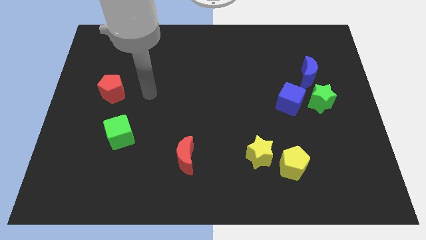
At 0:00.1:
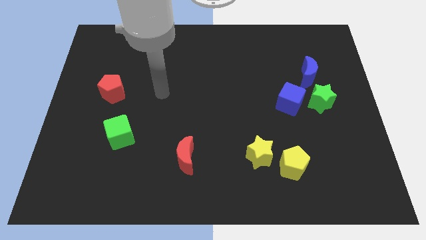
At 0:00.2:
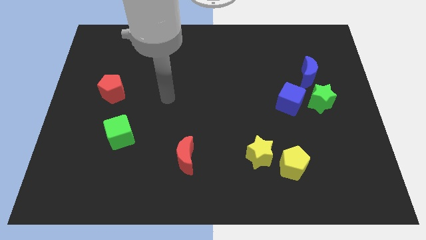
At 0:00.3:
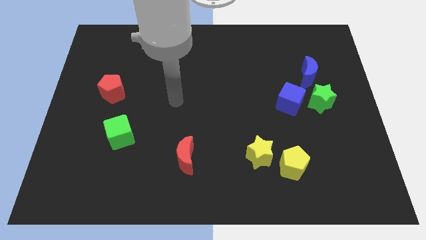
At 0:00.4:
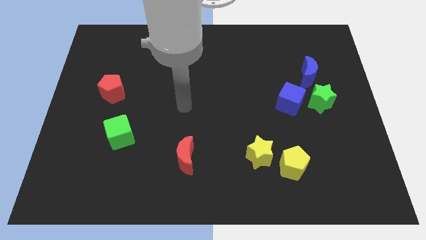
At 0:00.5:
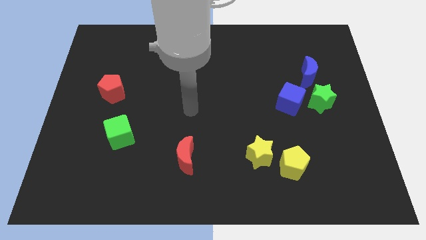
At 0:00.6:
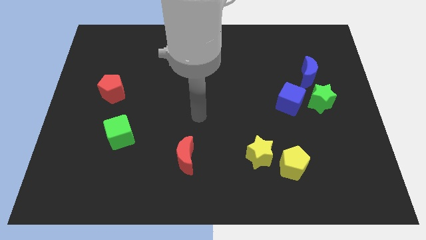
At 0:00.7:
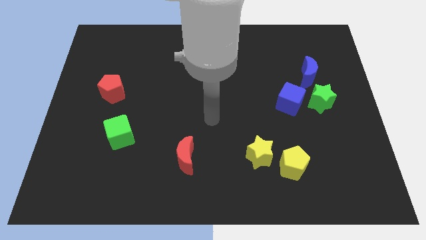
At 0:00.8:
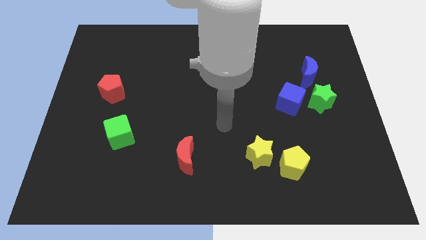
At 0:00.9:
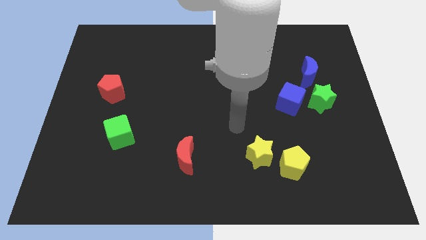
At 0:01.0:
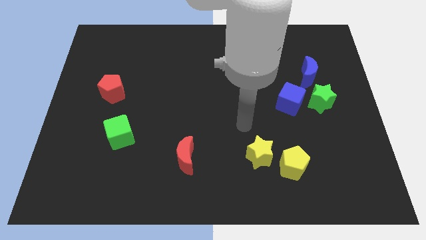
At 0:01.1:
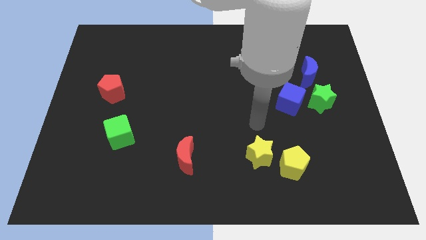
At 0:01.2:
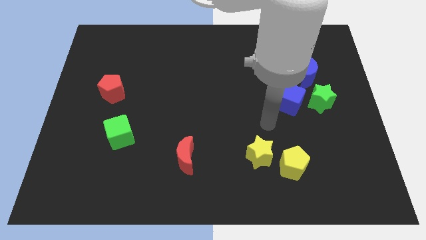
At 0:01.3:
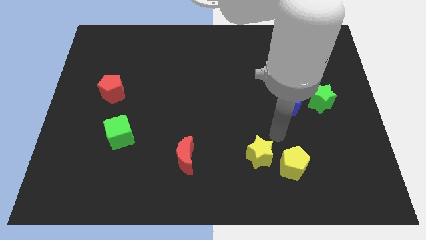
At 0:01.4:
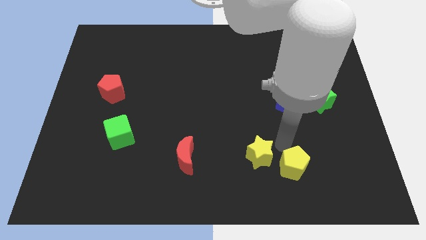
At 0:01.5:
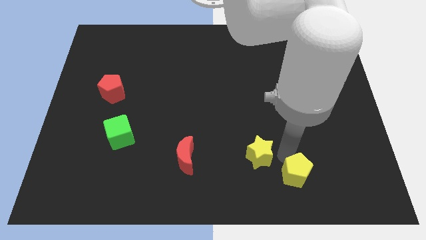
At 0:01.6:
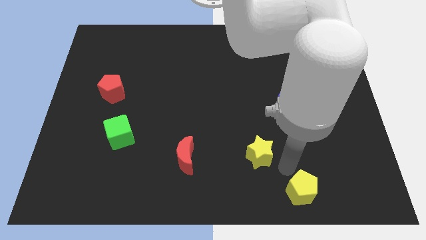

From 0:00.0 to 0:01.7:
separate the yellow star from the yellow pentagon

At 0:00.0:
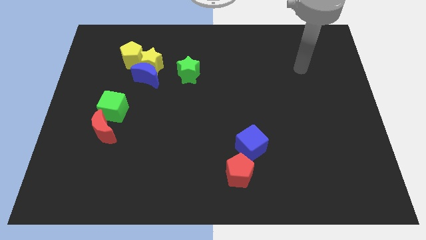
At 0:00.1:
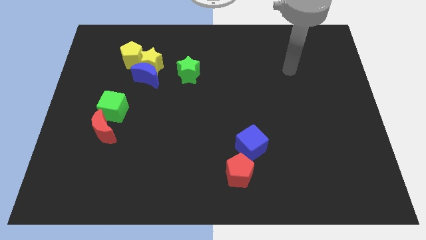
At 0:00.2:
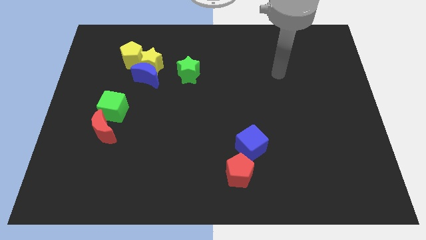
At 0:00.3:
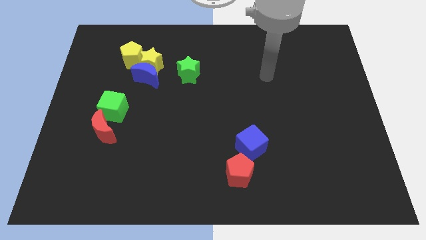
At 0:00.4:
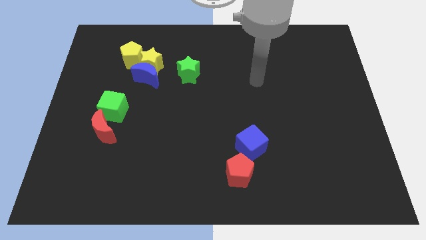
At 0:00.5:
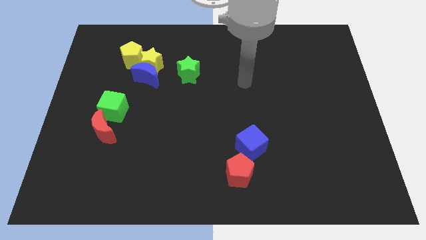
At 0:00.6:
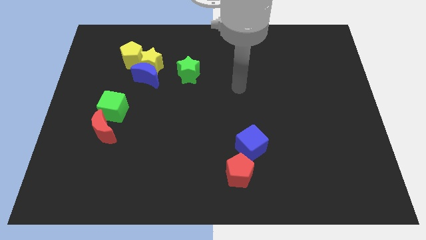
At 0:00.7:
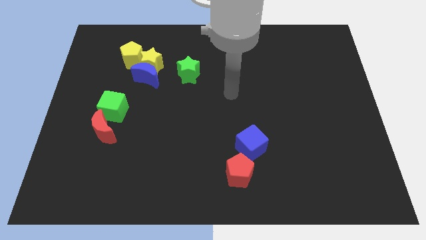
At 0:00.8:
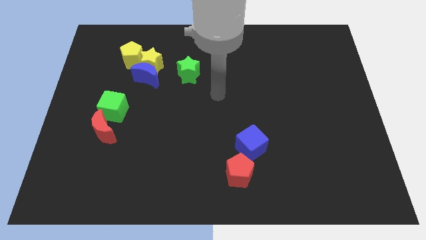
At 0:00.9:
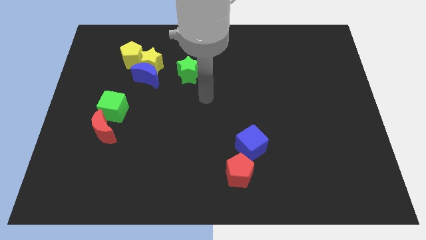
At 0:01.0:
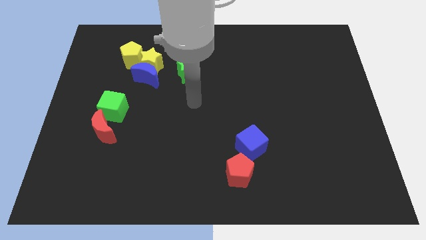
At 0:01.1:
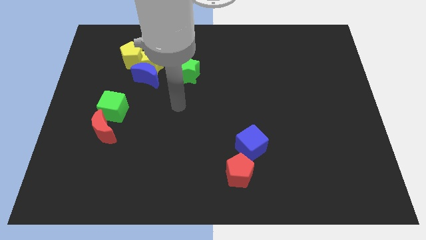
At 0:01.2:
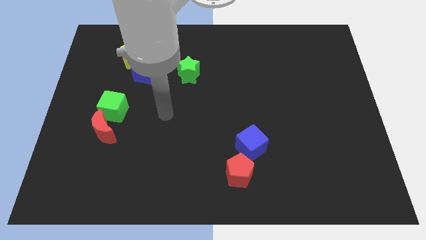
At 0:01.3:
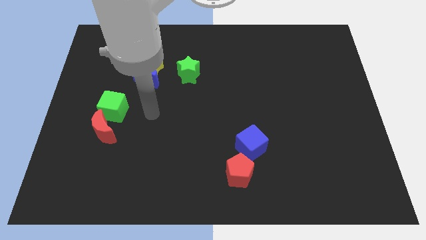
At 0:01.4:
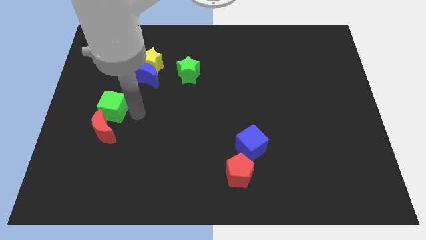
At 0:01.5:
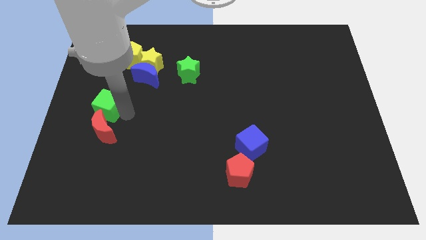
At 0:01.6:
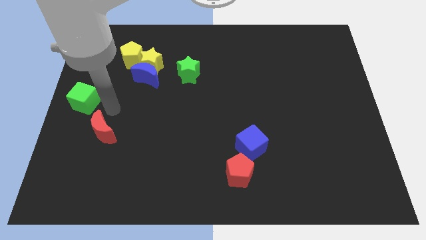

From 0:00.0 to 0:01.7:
move the red moon away from the green cube

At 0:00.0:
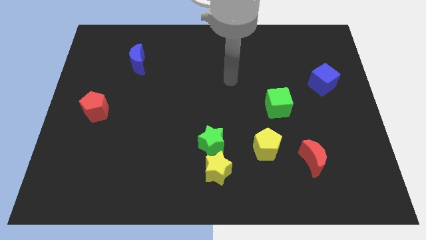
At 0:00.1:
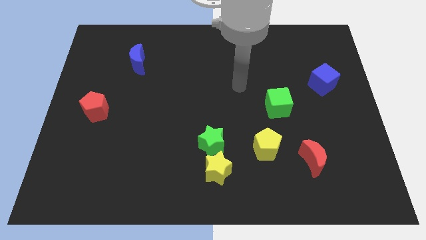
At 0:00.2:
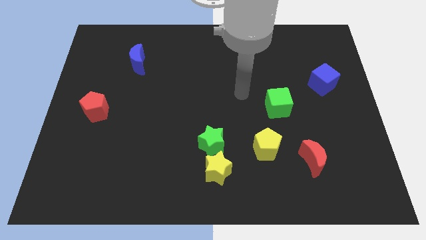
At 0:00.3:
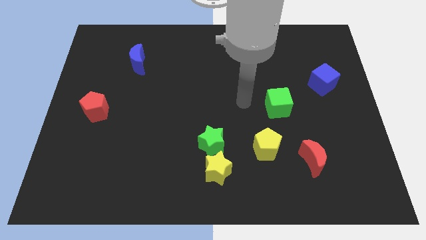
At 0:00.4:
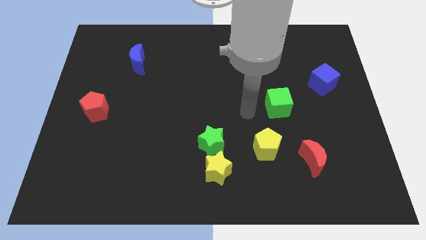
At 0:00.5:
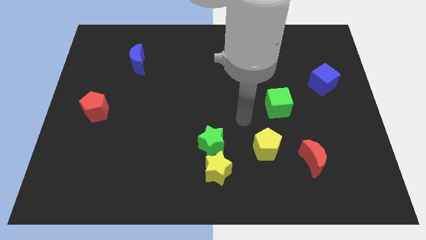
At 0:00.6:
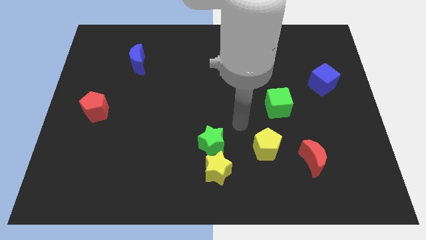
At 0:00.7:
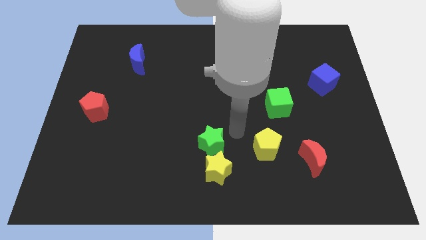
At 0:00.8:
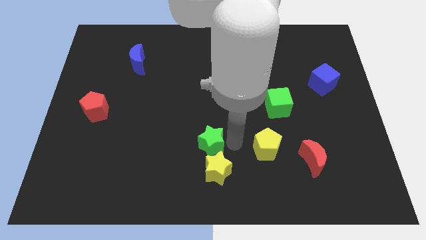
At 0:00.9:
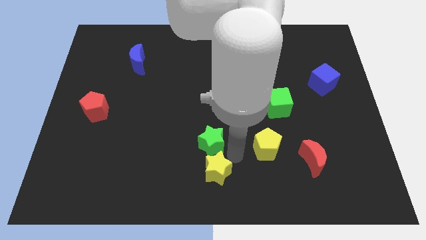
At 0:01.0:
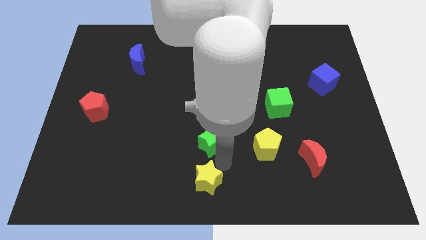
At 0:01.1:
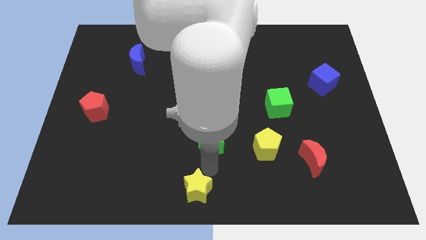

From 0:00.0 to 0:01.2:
pull the green star apart from the yellow star

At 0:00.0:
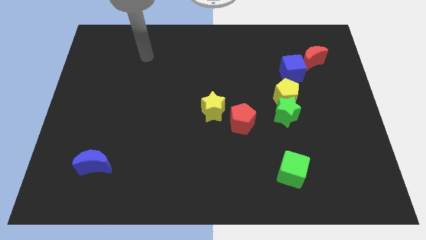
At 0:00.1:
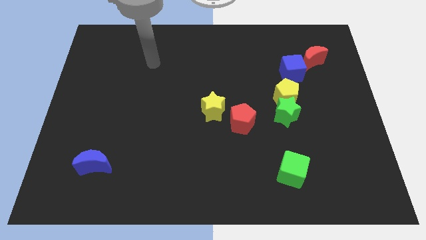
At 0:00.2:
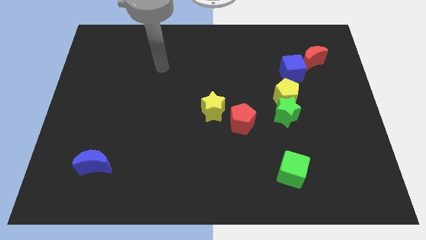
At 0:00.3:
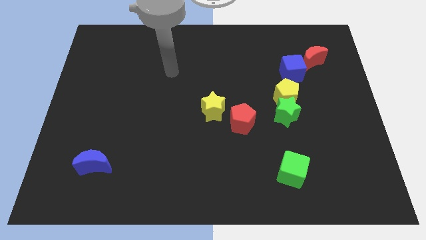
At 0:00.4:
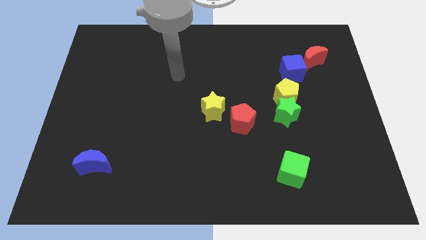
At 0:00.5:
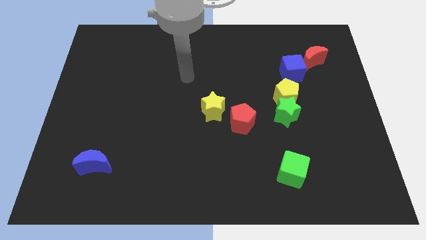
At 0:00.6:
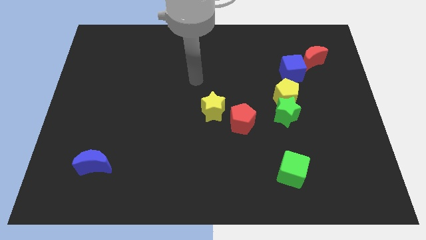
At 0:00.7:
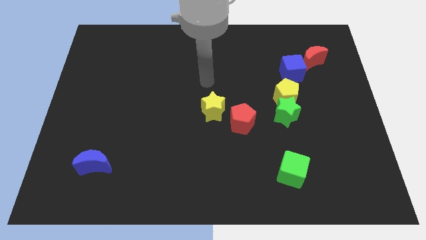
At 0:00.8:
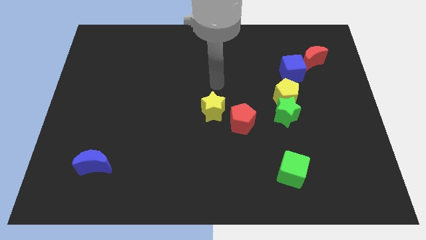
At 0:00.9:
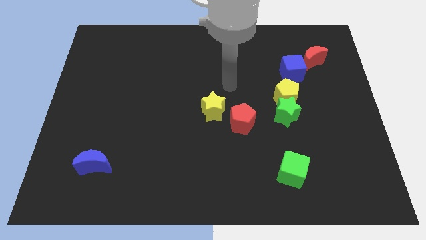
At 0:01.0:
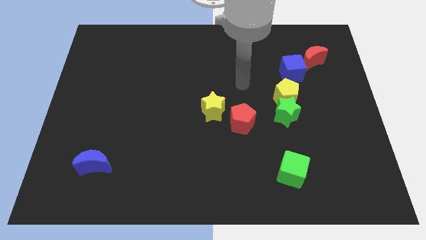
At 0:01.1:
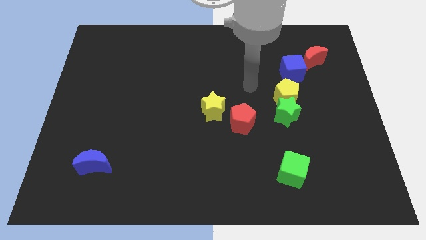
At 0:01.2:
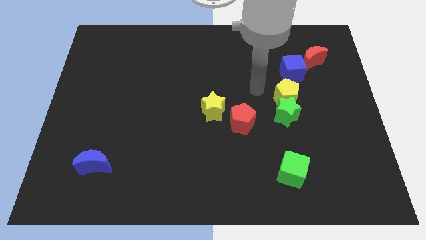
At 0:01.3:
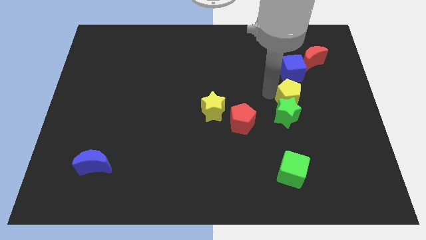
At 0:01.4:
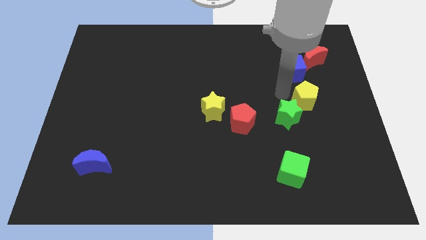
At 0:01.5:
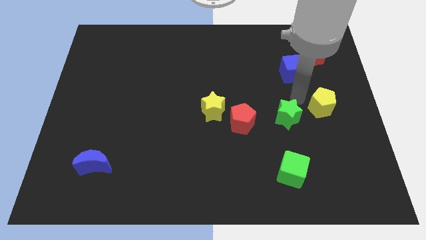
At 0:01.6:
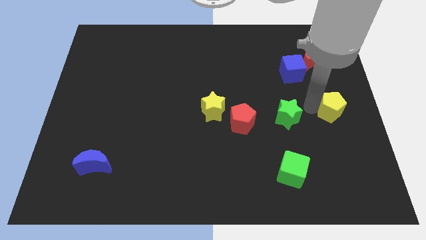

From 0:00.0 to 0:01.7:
move the green star away from the yellow pentagon

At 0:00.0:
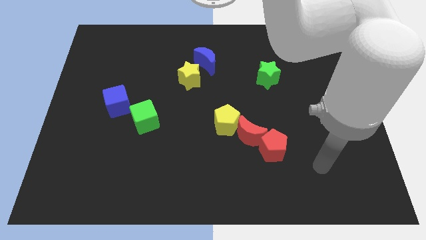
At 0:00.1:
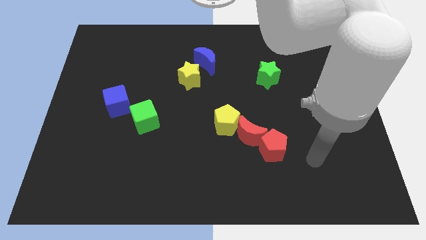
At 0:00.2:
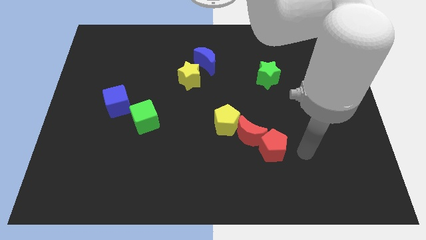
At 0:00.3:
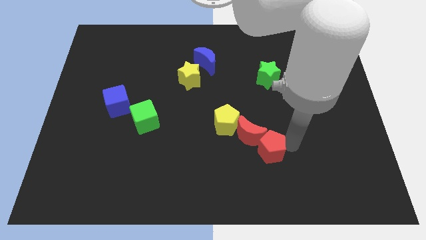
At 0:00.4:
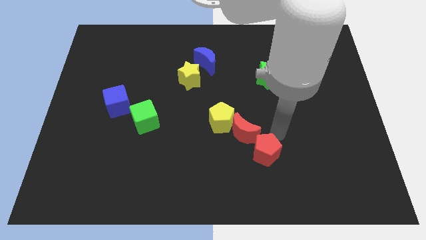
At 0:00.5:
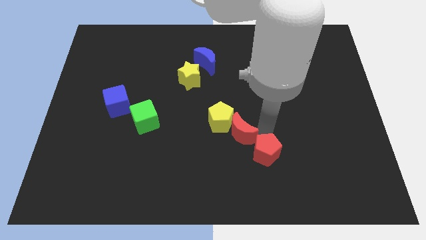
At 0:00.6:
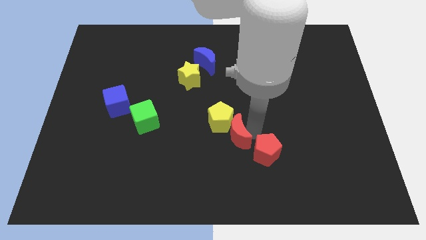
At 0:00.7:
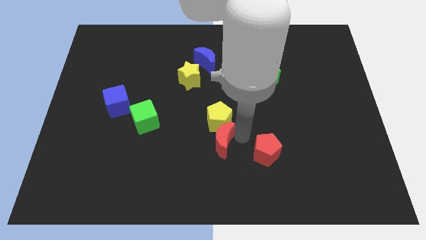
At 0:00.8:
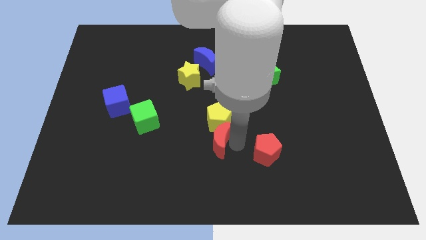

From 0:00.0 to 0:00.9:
move the red pentagon away from the red moon

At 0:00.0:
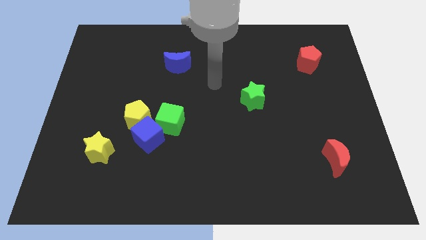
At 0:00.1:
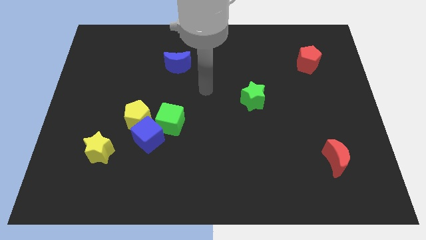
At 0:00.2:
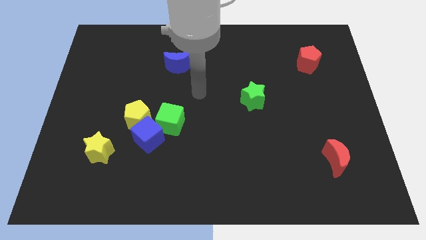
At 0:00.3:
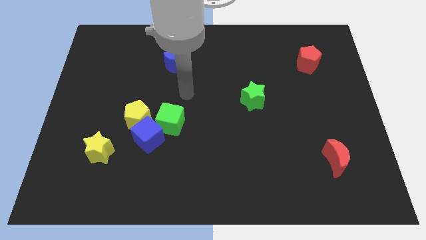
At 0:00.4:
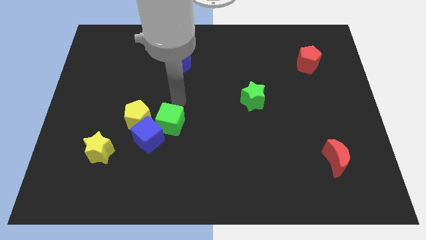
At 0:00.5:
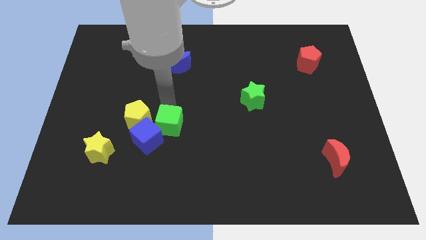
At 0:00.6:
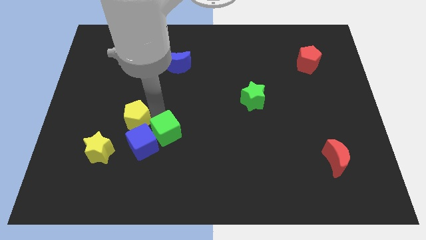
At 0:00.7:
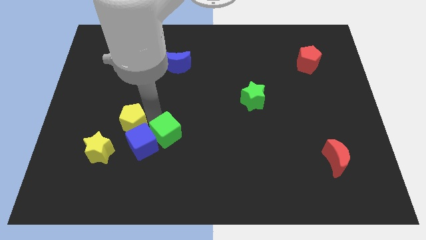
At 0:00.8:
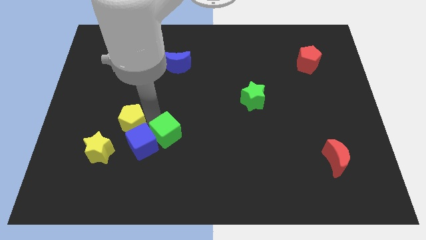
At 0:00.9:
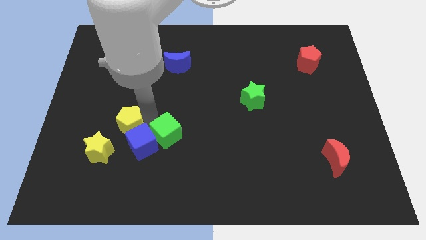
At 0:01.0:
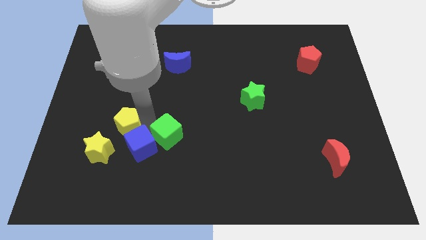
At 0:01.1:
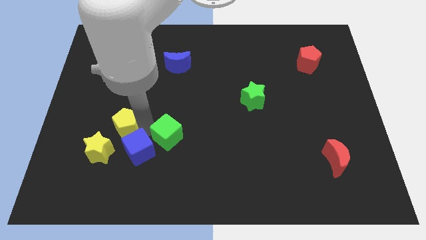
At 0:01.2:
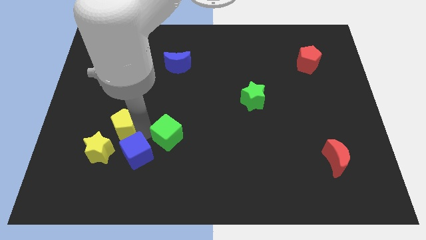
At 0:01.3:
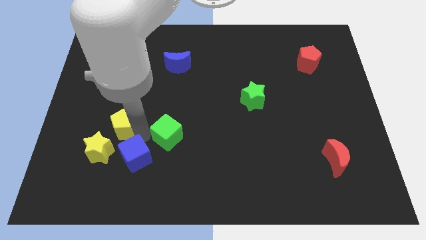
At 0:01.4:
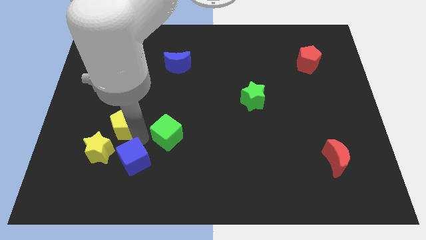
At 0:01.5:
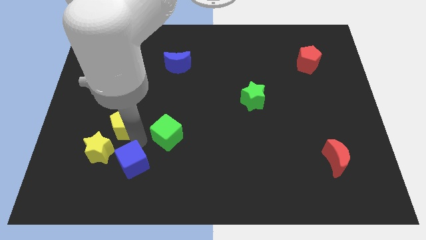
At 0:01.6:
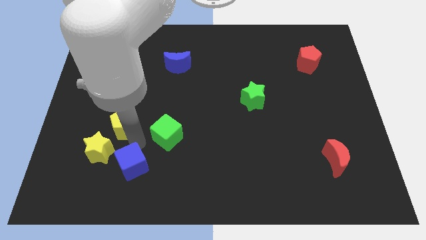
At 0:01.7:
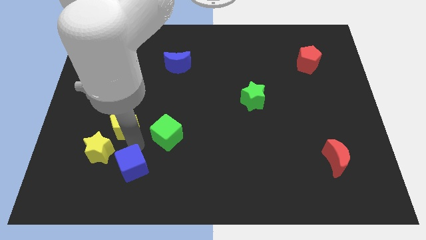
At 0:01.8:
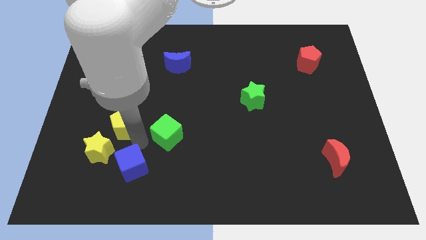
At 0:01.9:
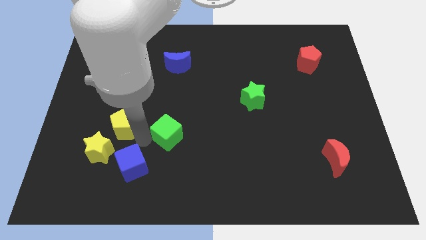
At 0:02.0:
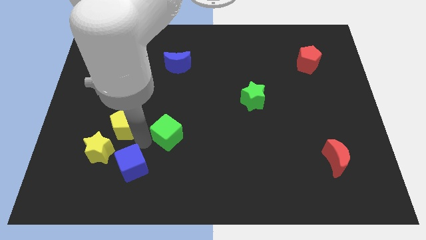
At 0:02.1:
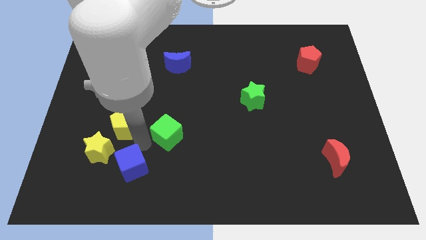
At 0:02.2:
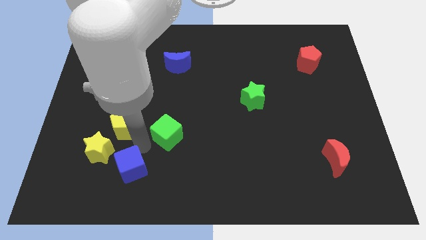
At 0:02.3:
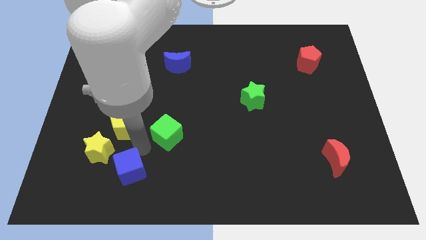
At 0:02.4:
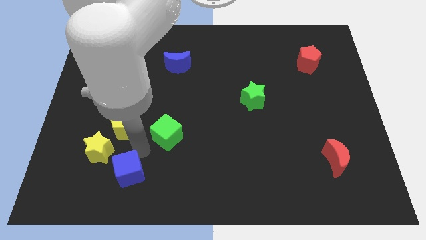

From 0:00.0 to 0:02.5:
separate the blue cube from the yellow pentagon and green cube
